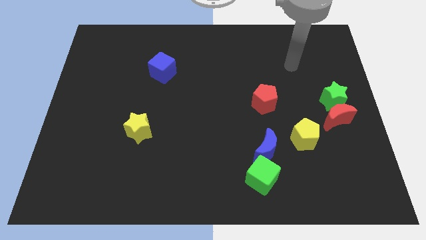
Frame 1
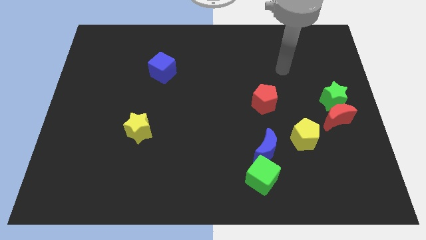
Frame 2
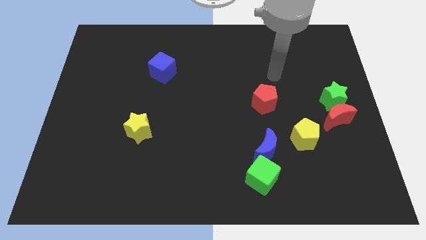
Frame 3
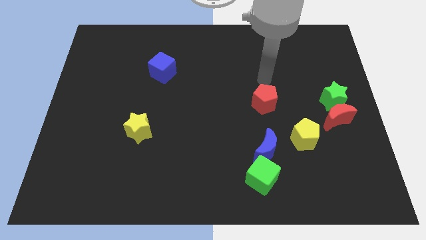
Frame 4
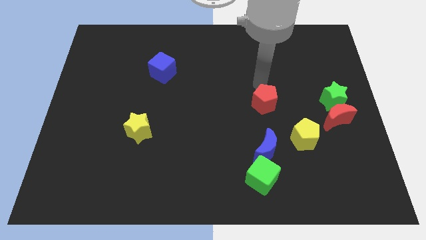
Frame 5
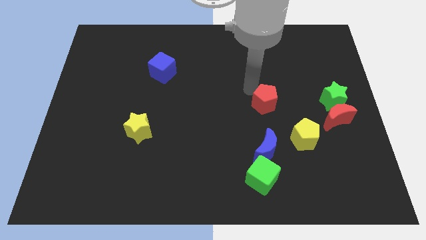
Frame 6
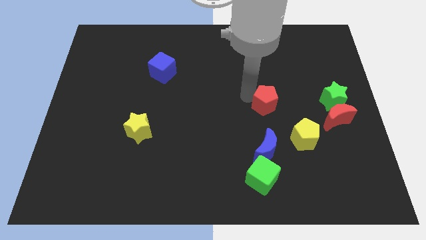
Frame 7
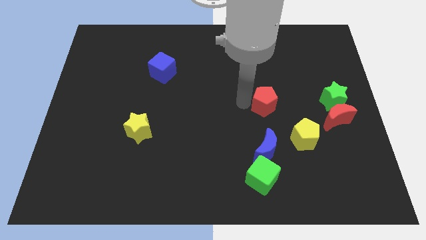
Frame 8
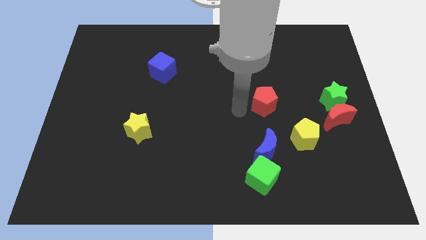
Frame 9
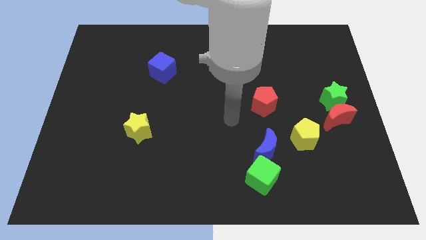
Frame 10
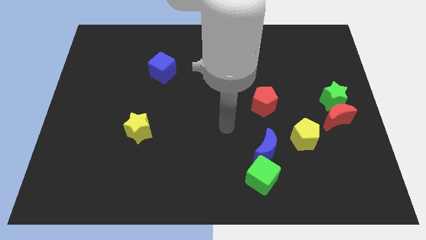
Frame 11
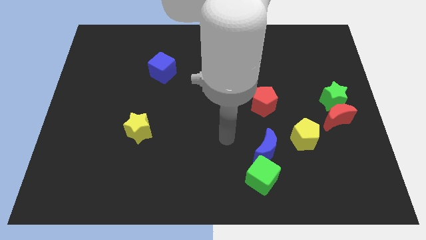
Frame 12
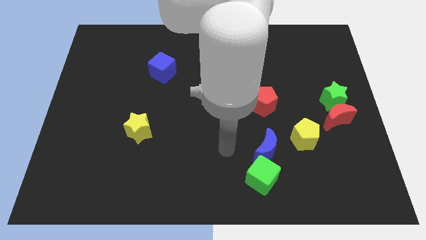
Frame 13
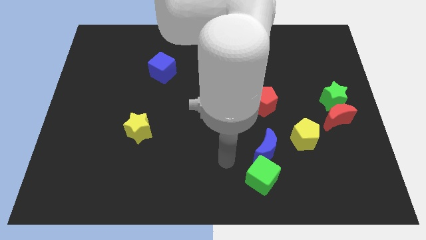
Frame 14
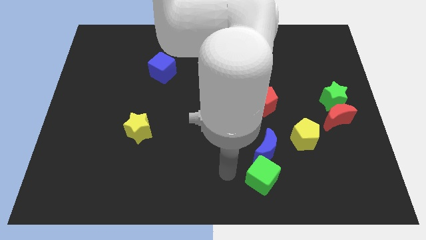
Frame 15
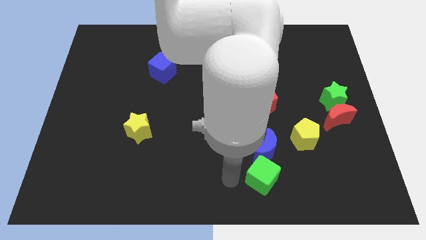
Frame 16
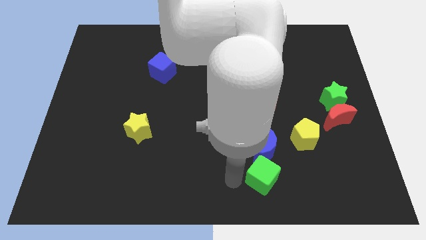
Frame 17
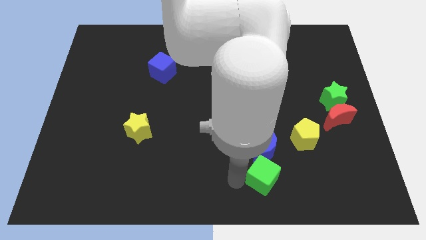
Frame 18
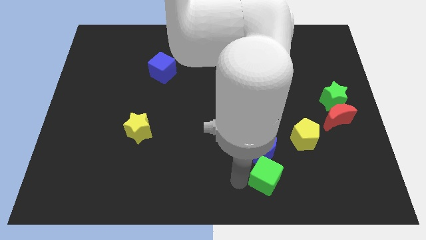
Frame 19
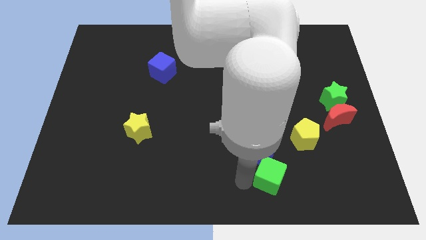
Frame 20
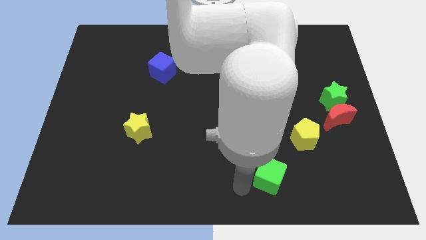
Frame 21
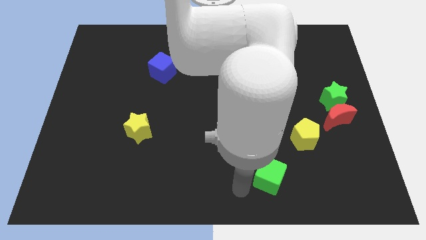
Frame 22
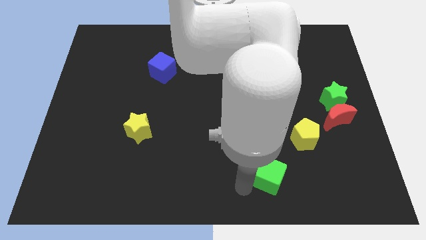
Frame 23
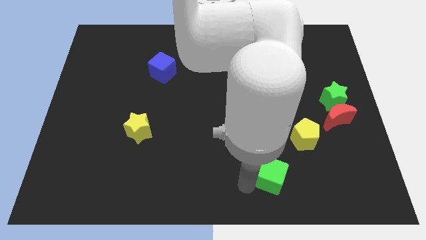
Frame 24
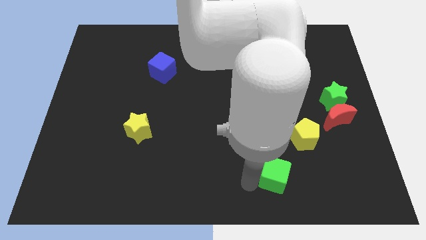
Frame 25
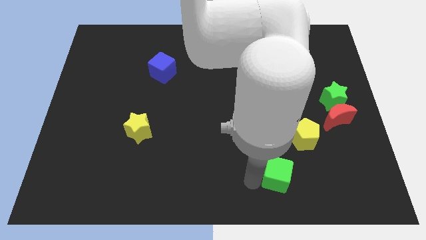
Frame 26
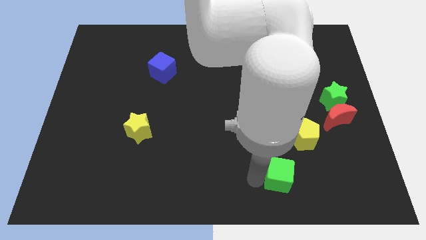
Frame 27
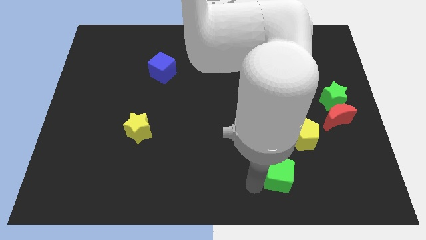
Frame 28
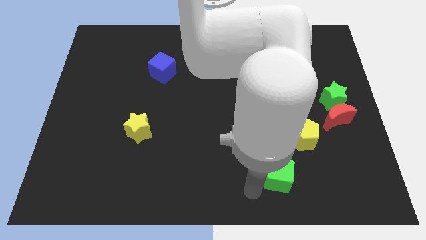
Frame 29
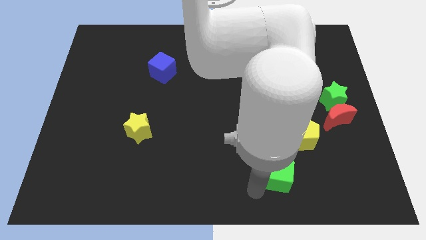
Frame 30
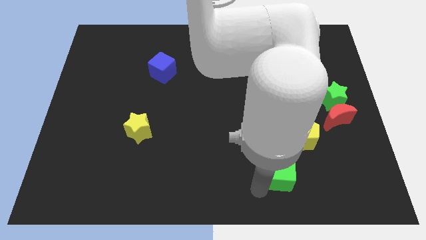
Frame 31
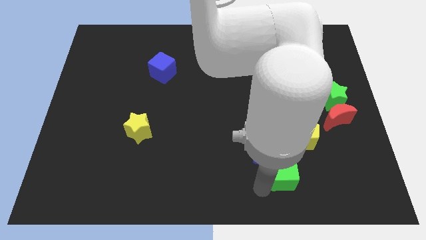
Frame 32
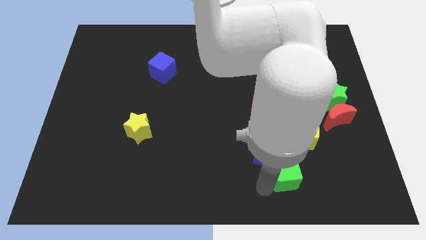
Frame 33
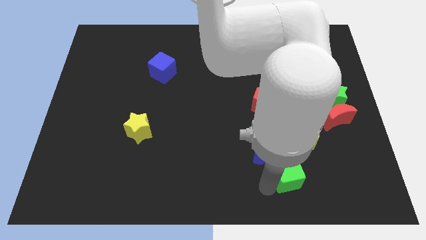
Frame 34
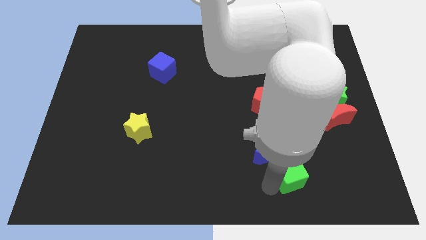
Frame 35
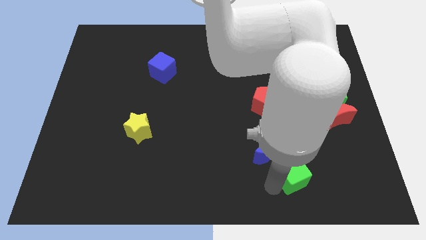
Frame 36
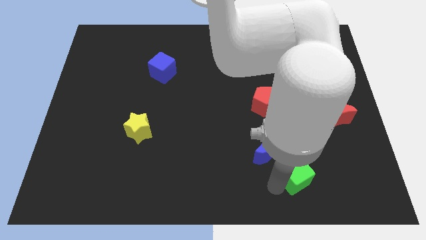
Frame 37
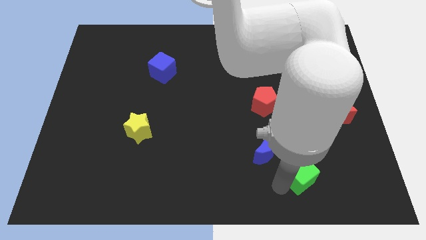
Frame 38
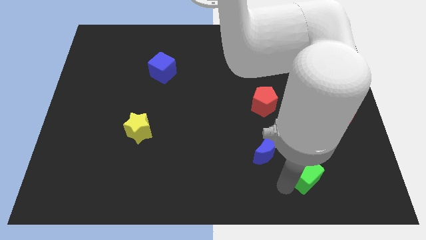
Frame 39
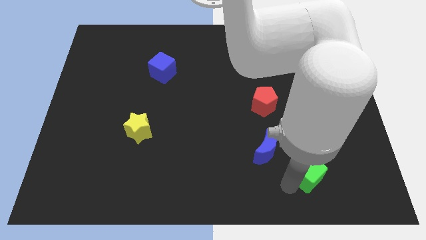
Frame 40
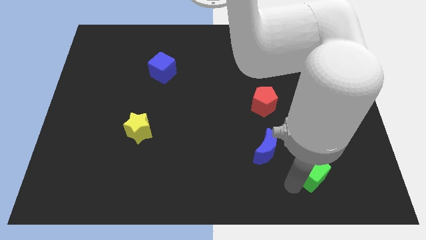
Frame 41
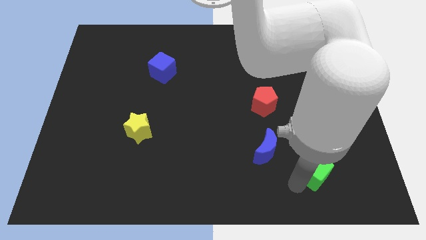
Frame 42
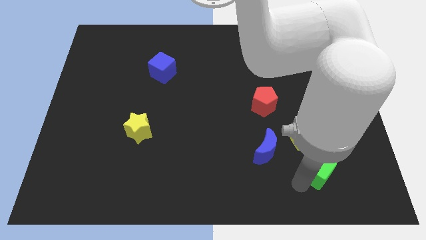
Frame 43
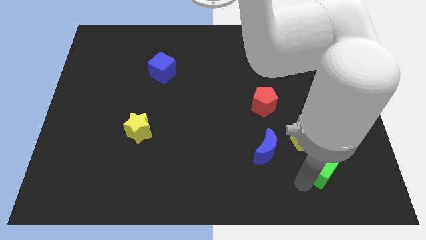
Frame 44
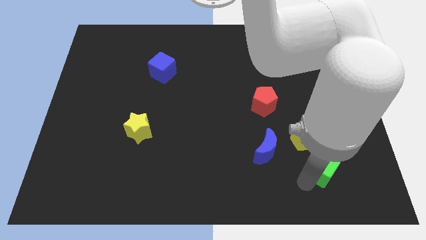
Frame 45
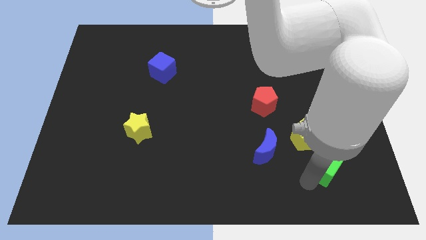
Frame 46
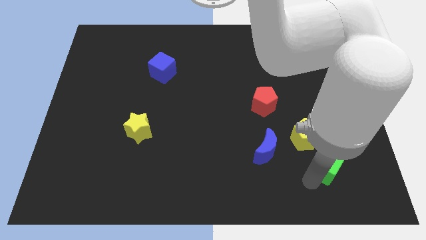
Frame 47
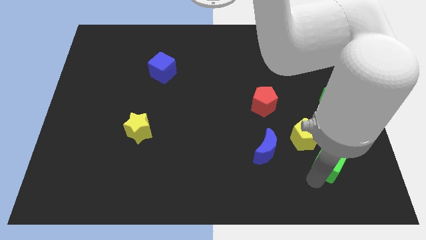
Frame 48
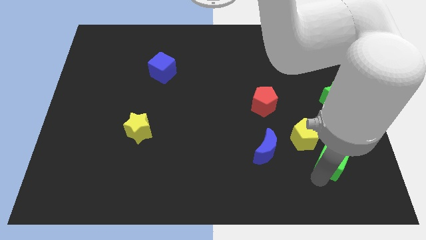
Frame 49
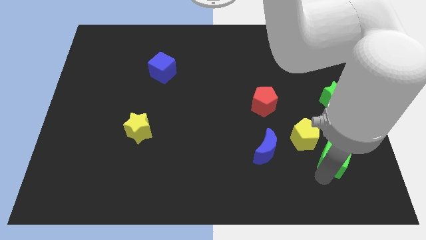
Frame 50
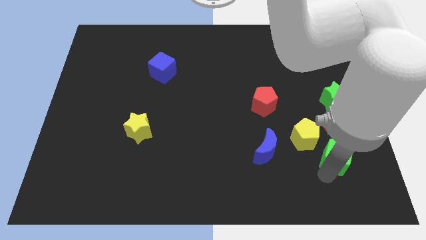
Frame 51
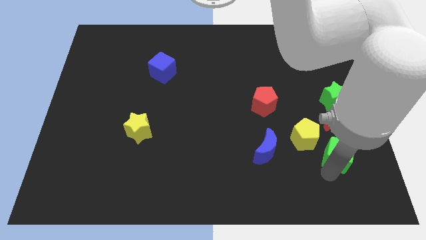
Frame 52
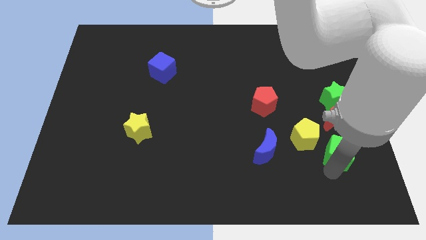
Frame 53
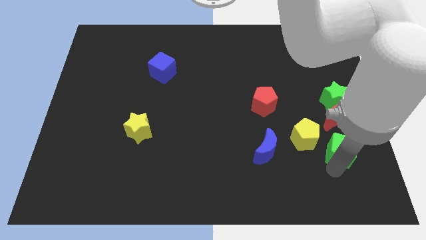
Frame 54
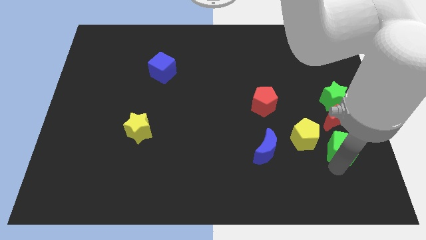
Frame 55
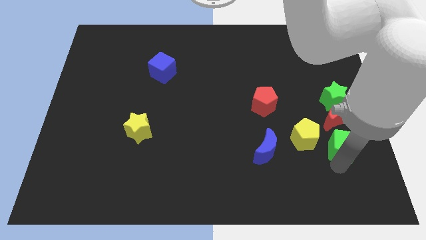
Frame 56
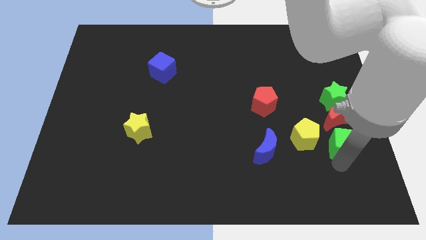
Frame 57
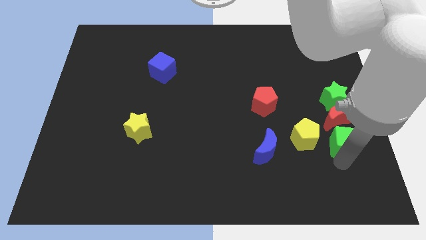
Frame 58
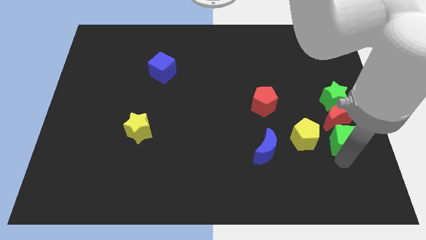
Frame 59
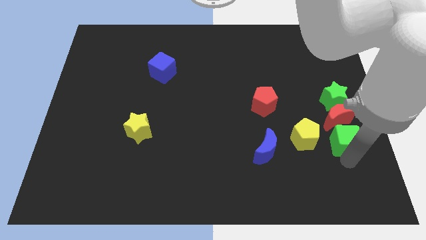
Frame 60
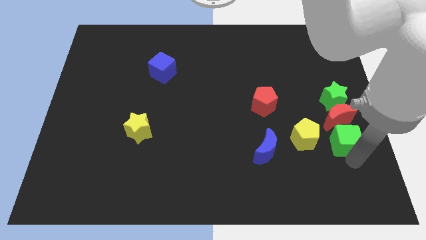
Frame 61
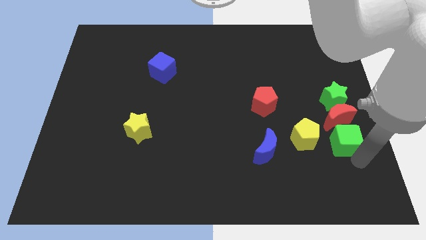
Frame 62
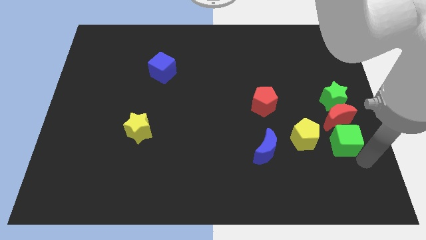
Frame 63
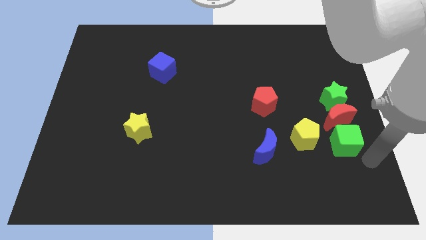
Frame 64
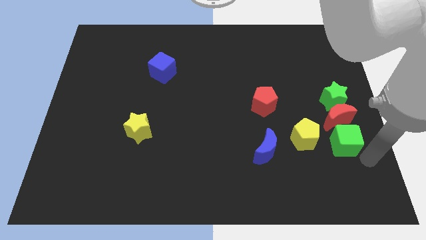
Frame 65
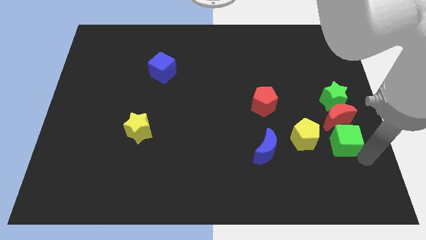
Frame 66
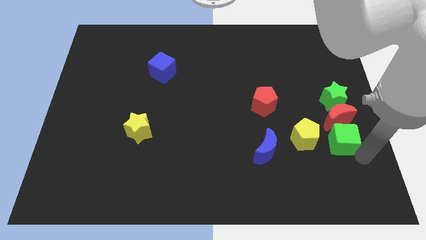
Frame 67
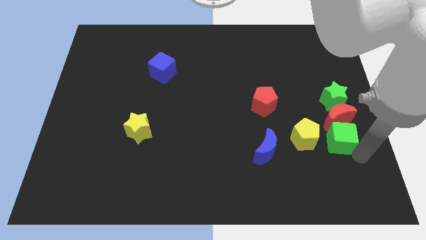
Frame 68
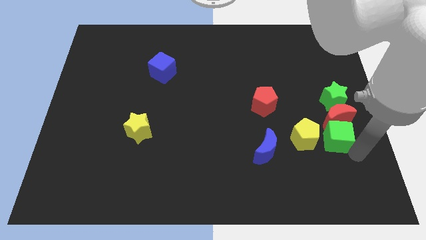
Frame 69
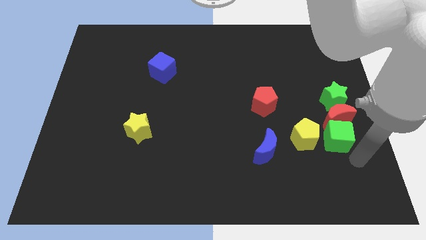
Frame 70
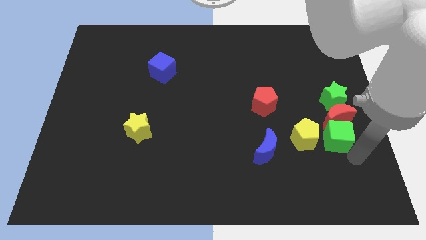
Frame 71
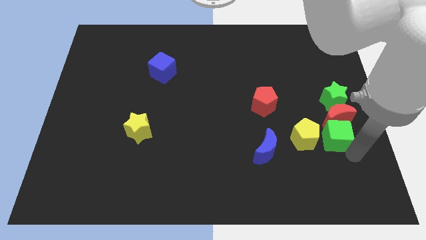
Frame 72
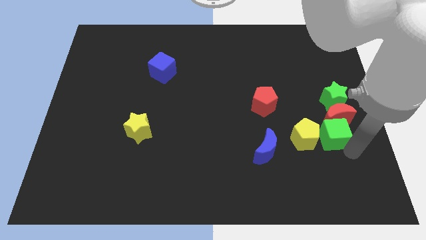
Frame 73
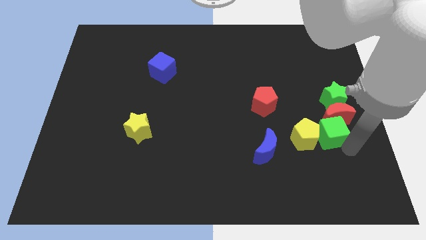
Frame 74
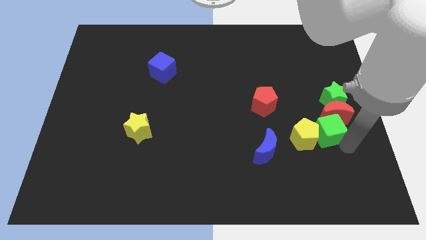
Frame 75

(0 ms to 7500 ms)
push the green cube to the bottom left side of the green star

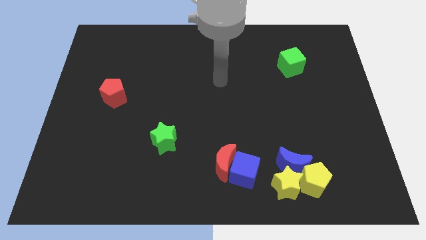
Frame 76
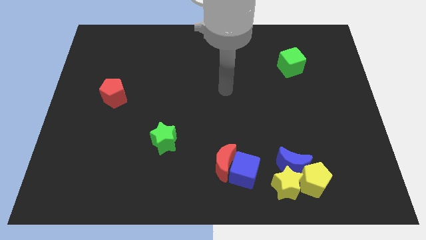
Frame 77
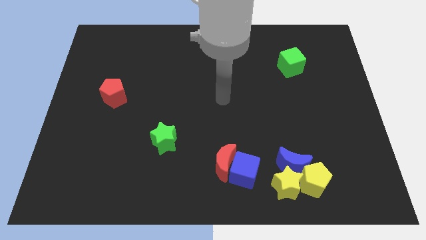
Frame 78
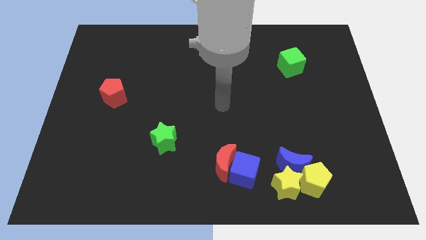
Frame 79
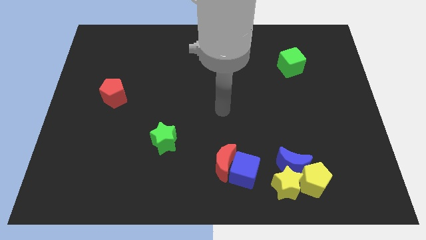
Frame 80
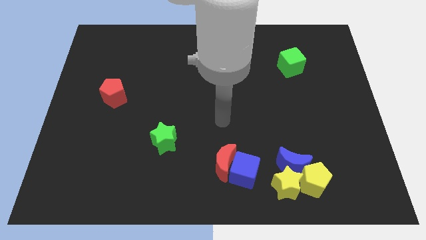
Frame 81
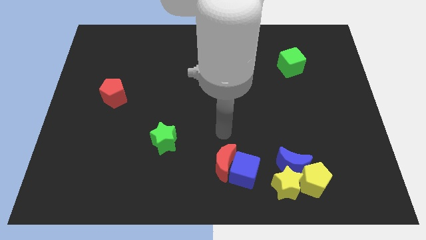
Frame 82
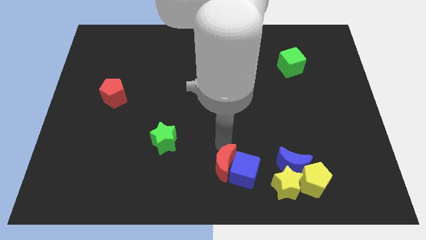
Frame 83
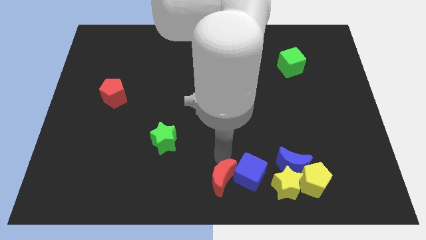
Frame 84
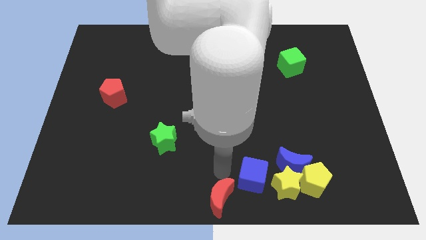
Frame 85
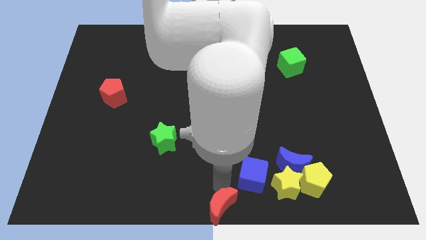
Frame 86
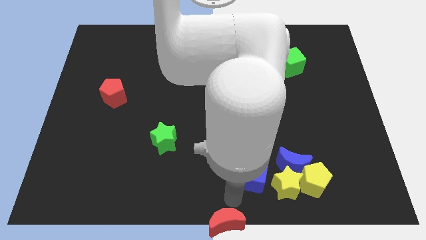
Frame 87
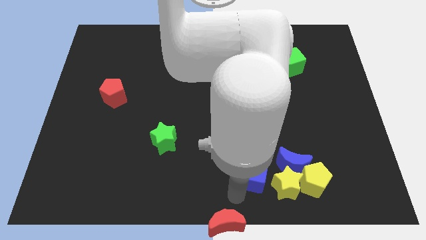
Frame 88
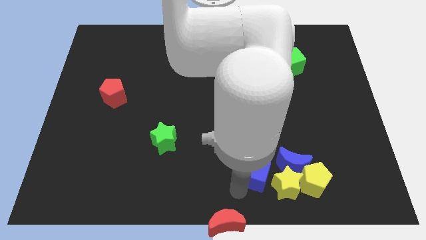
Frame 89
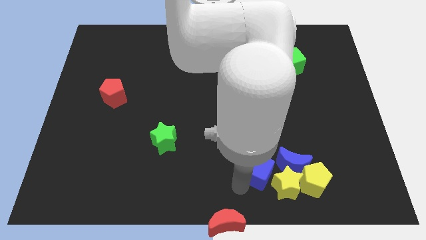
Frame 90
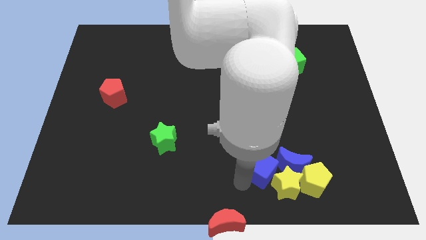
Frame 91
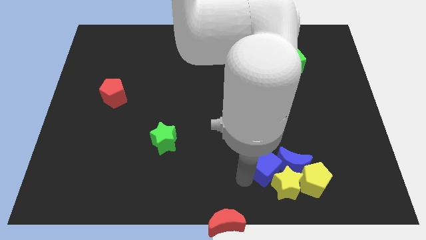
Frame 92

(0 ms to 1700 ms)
move the blue cube above the yellow star
